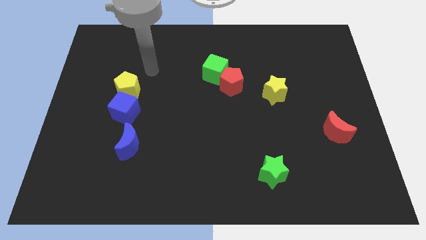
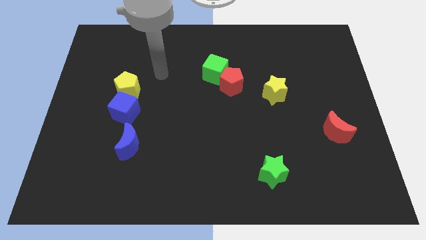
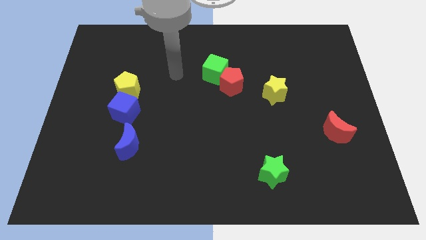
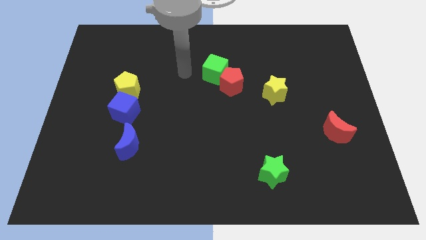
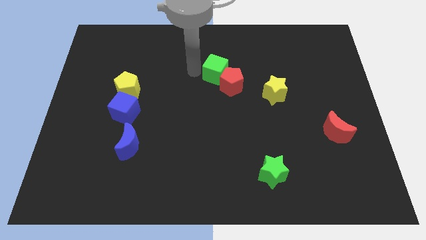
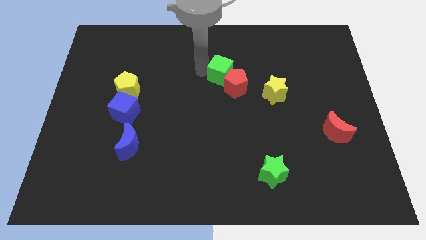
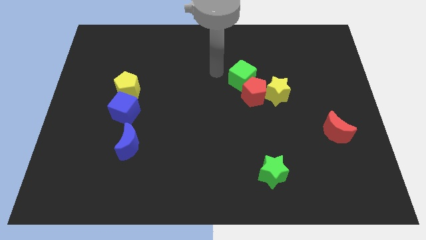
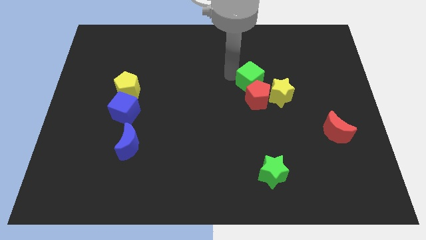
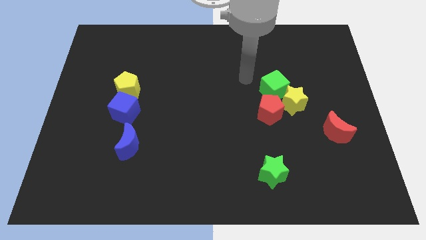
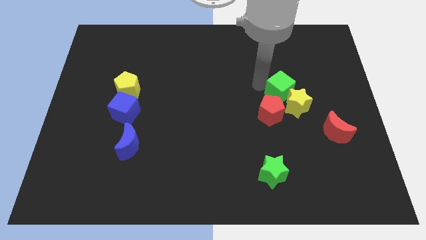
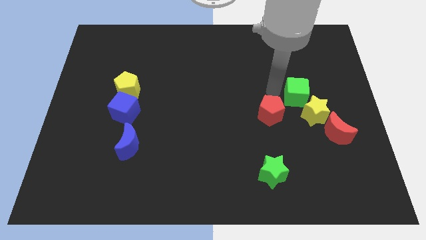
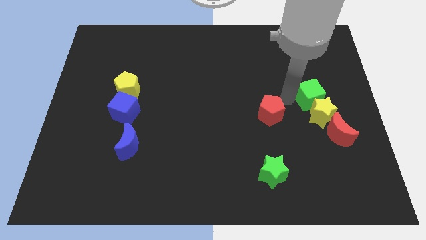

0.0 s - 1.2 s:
separate the red pentagon from the green cube

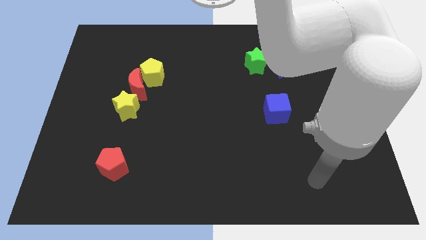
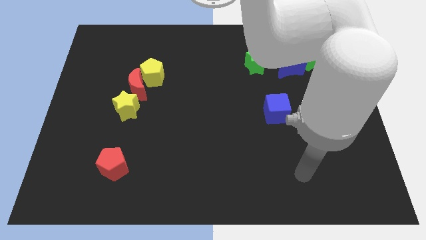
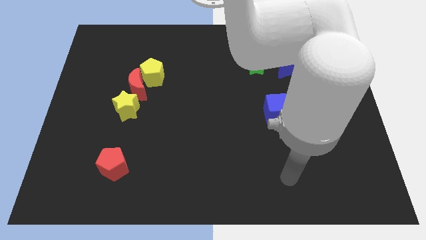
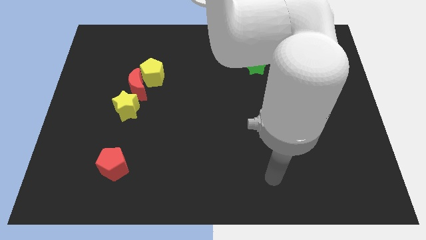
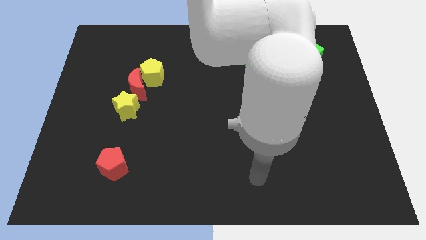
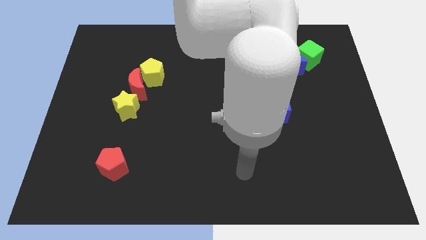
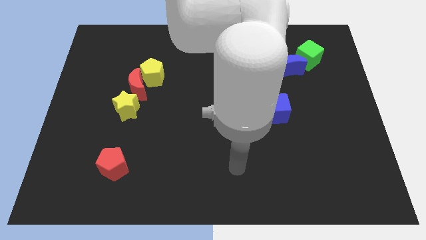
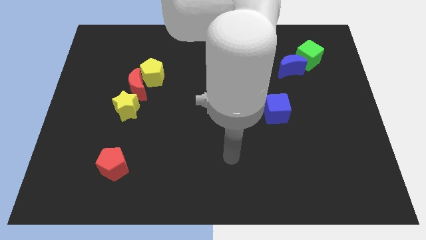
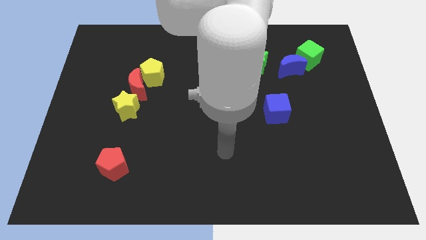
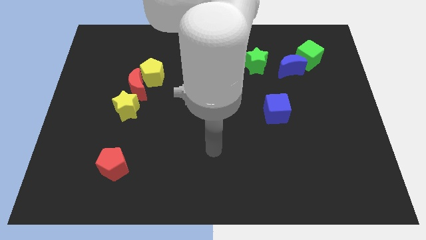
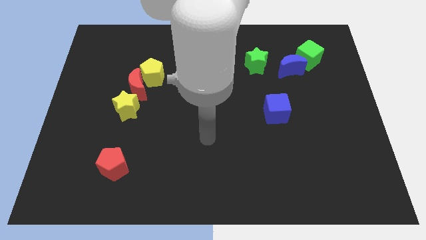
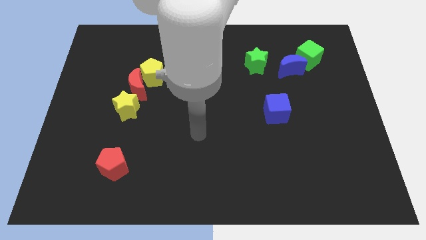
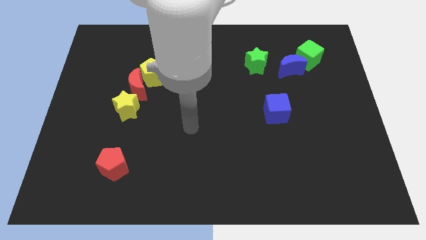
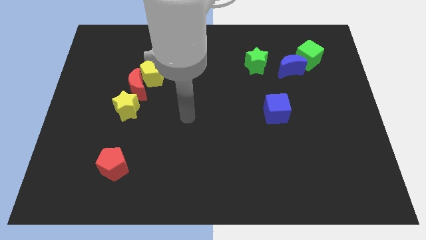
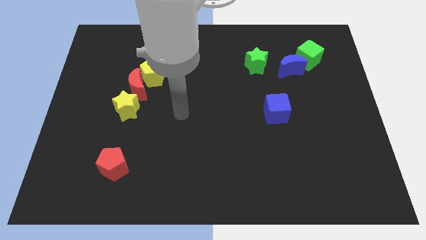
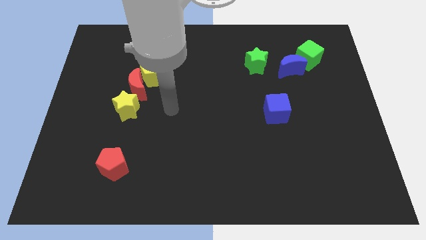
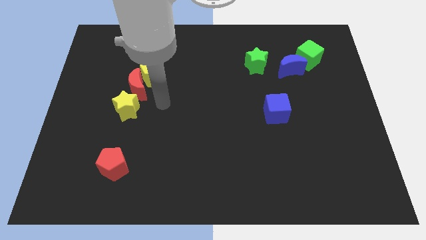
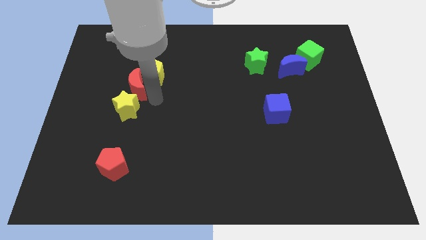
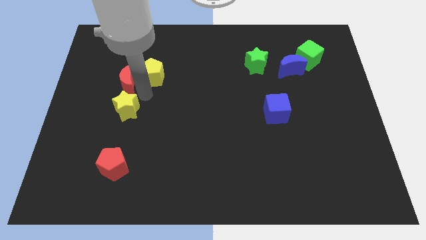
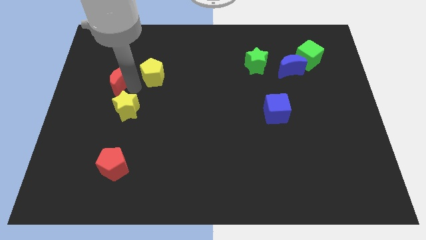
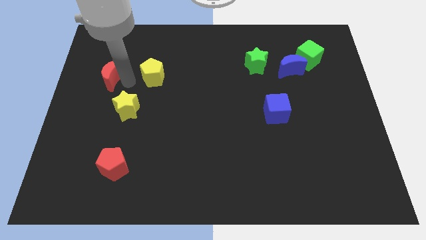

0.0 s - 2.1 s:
pull the yellow pentagon apart from the red moon

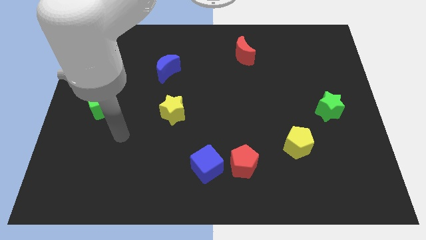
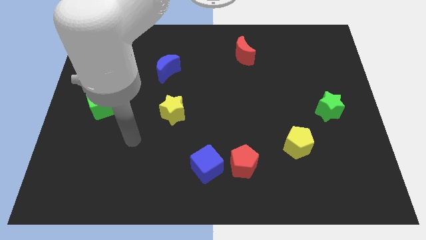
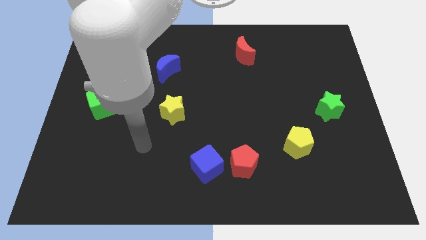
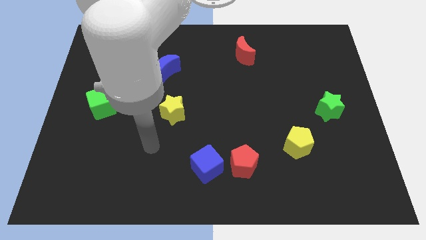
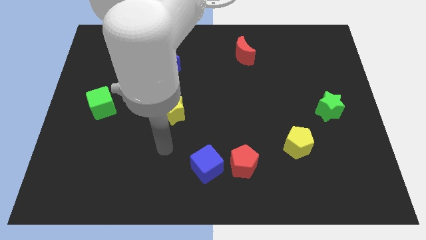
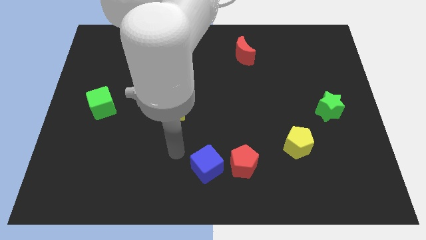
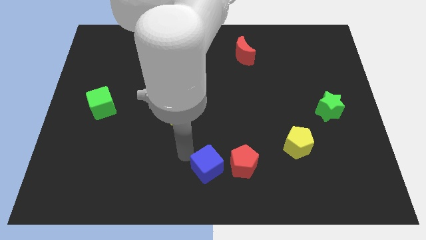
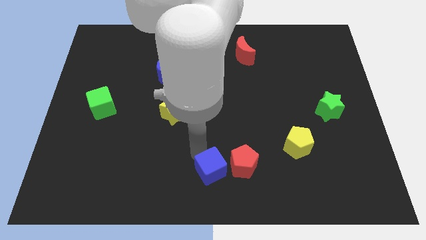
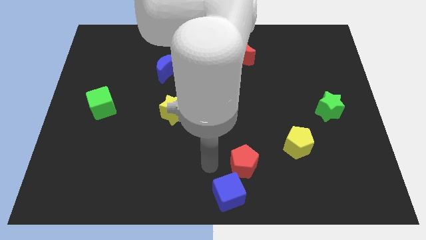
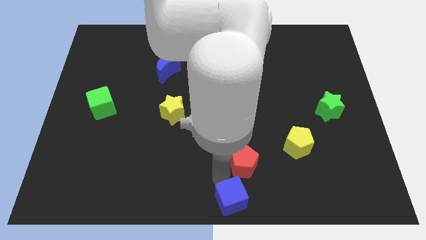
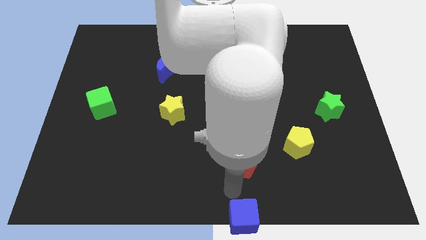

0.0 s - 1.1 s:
separate the red pentagon from the blue cube

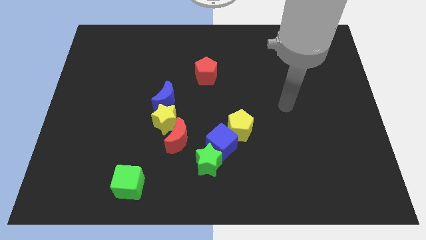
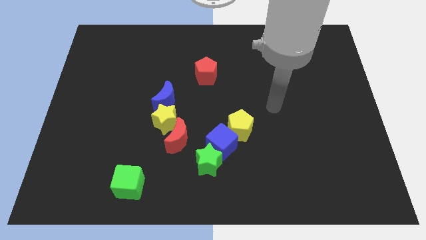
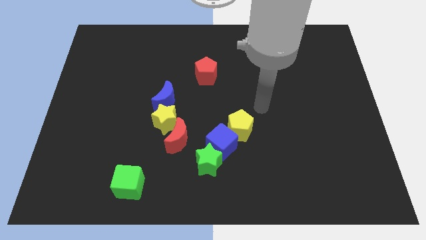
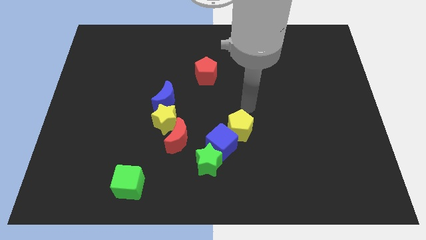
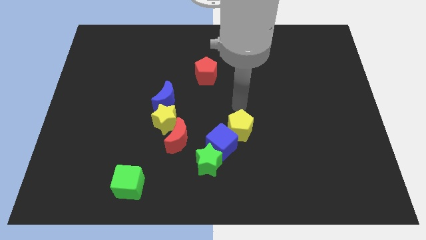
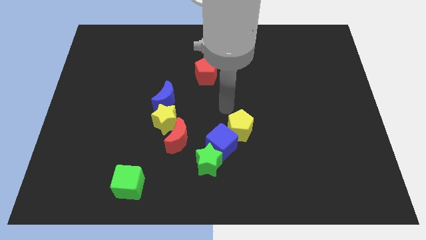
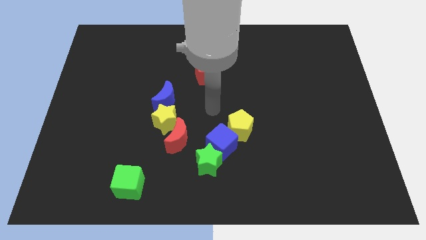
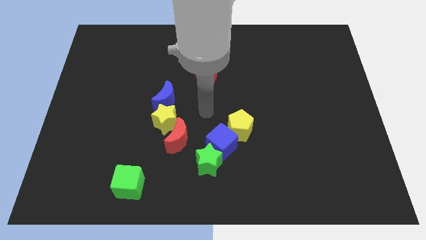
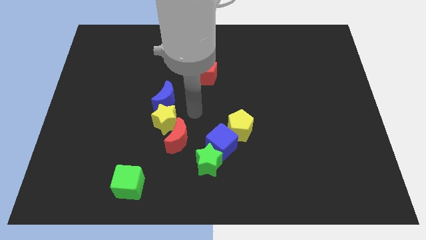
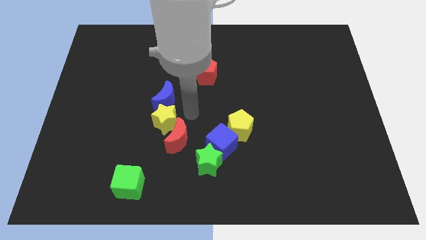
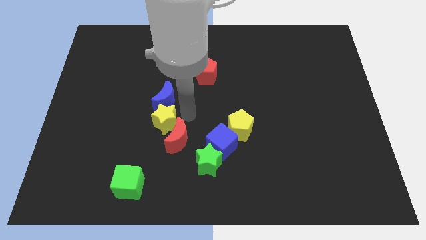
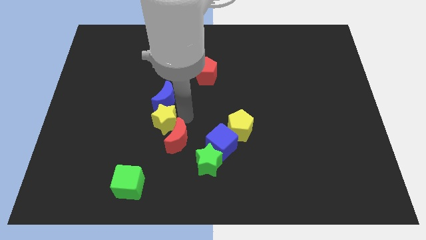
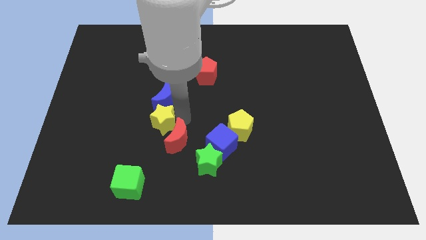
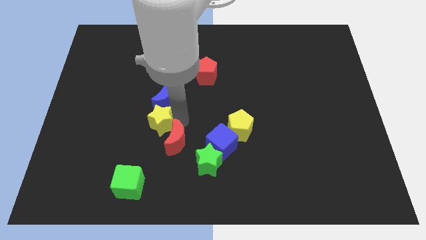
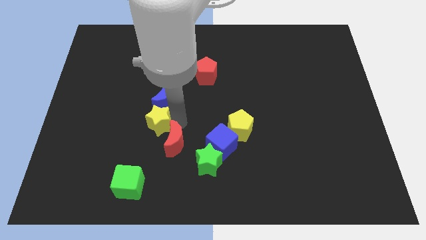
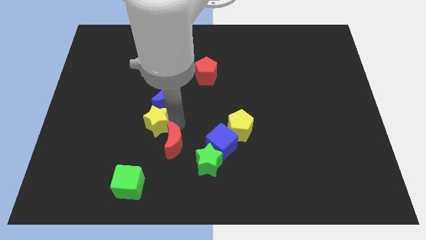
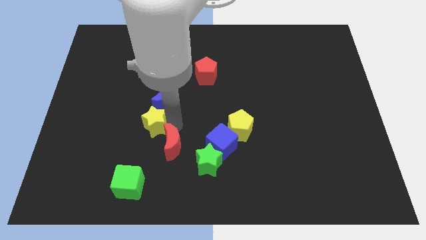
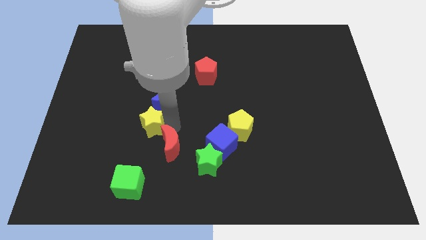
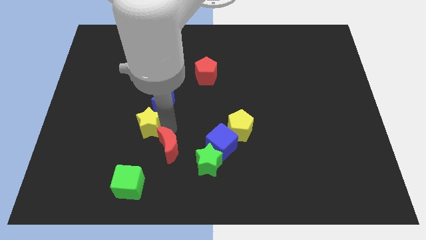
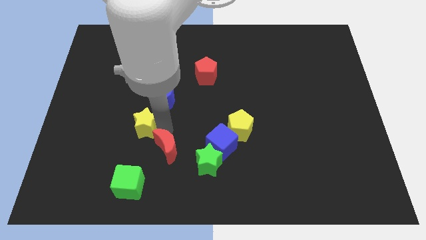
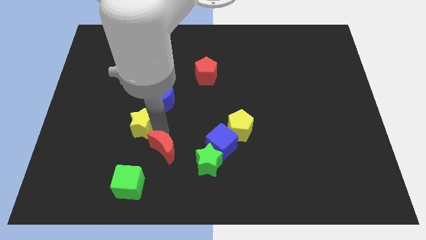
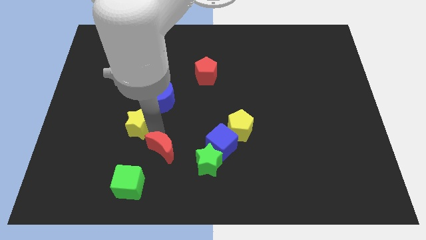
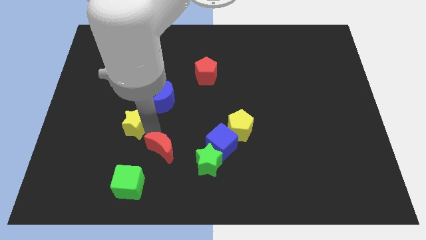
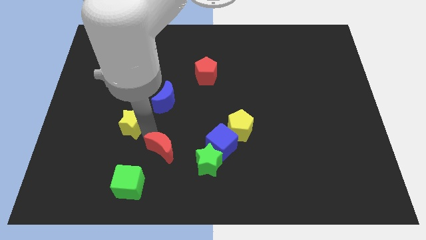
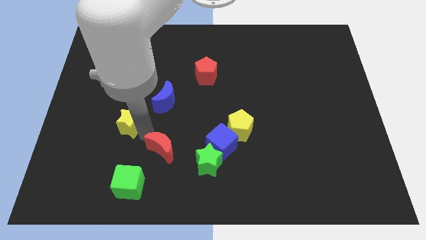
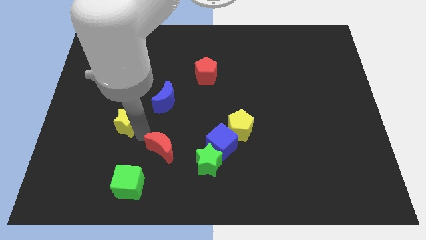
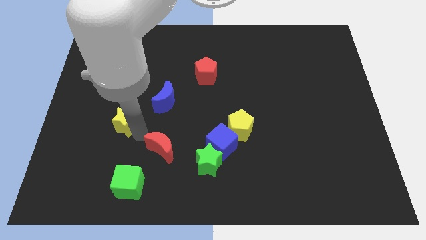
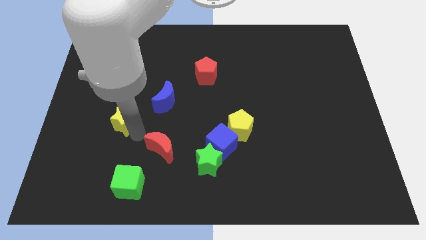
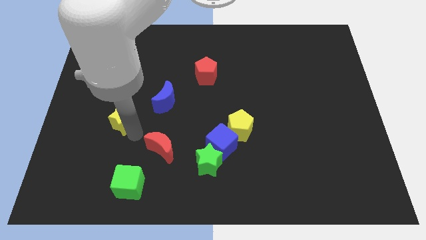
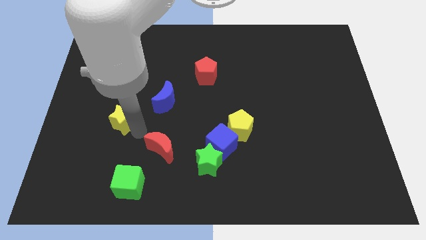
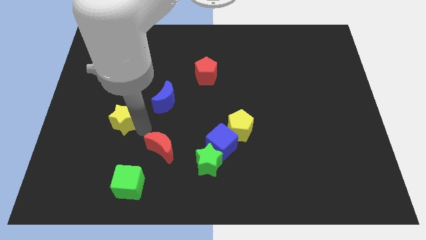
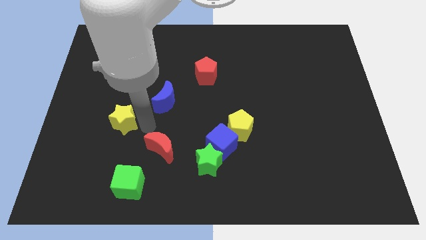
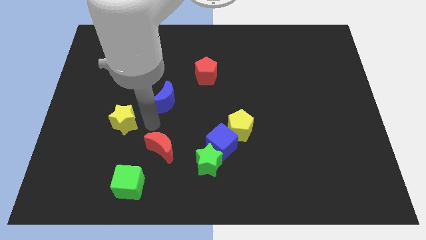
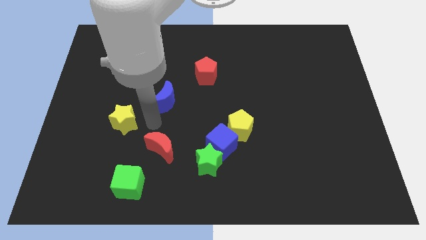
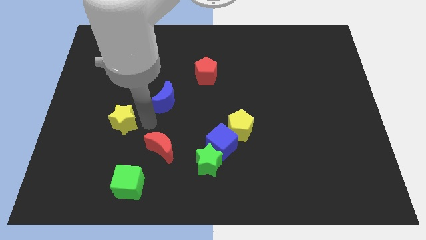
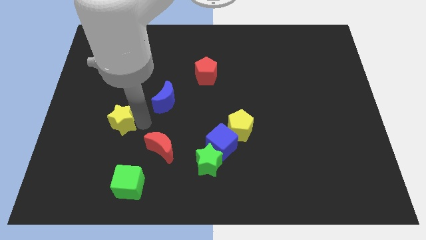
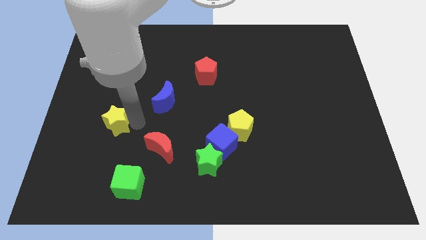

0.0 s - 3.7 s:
separate the yellow star from the red moon and blue moon

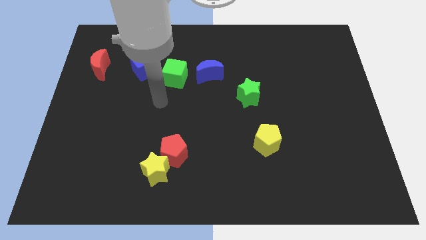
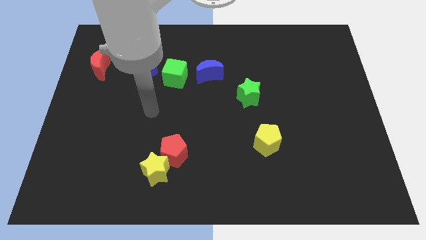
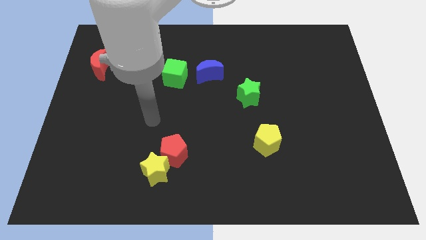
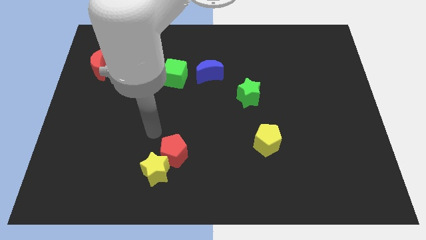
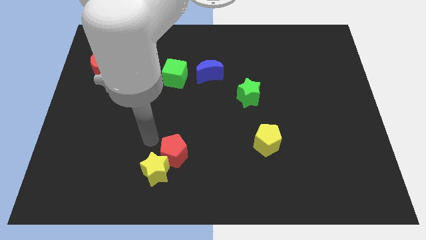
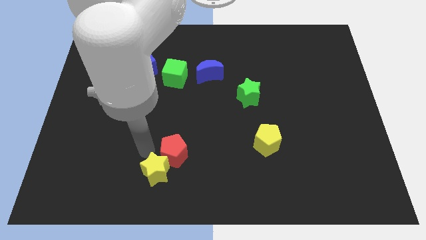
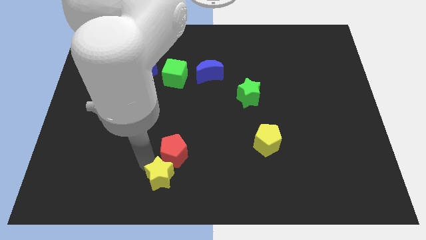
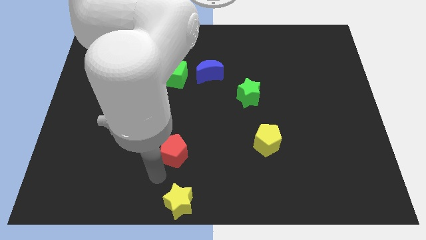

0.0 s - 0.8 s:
pull the red pentagon apart from the yellow star

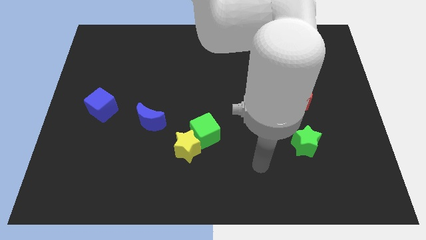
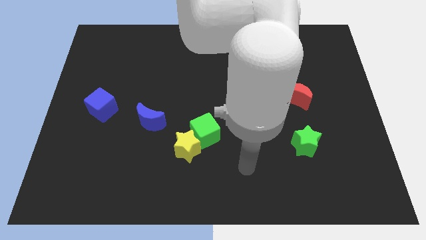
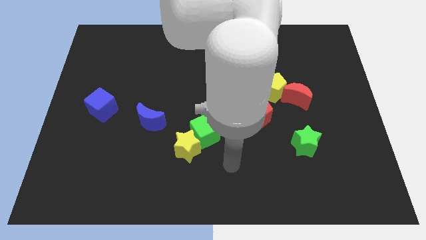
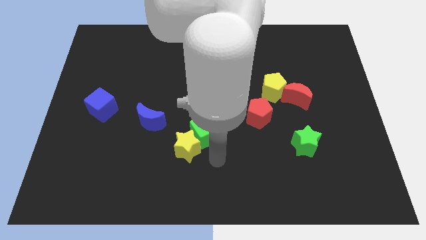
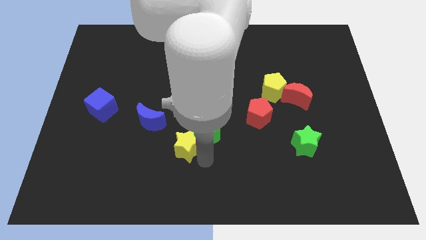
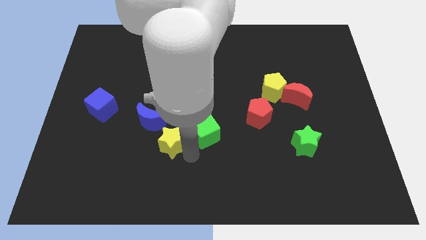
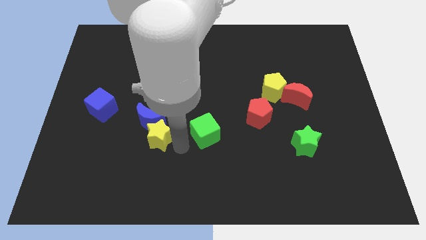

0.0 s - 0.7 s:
move the green cube away from the yellow star
